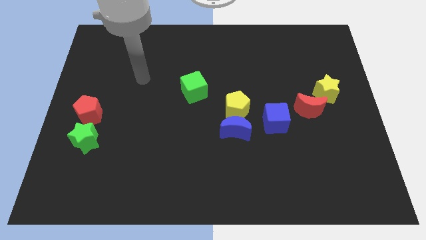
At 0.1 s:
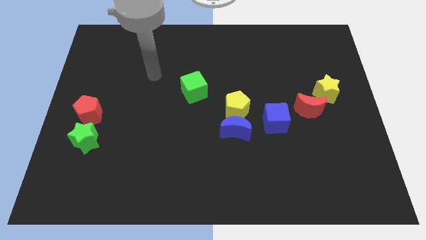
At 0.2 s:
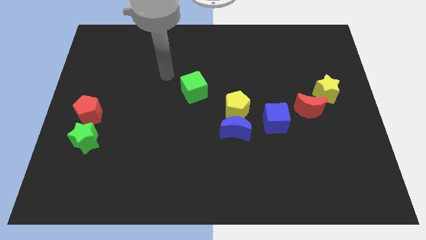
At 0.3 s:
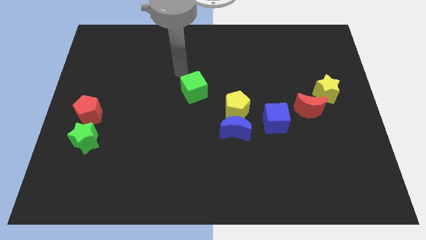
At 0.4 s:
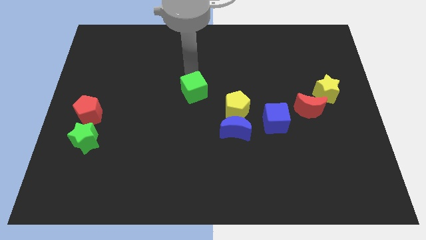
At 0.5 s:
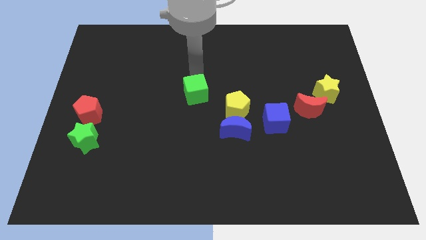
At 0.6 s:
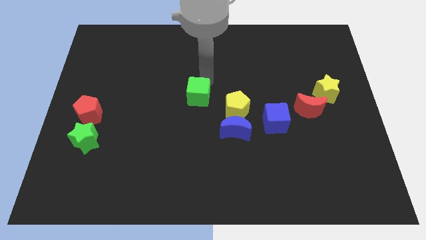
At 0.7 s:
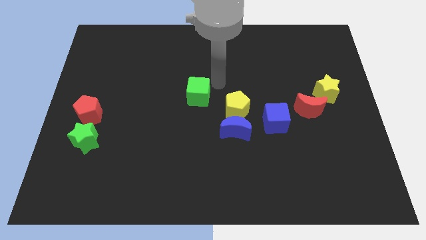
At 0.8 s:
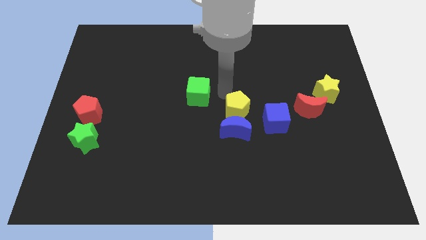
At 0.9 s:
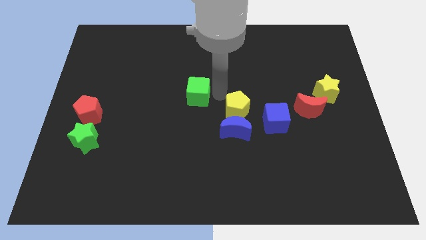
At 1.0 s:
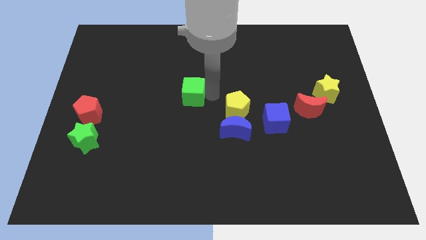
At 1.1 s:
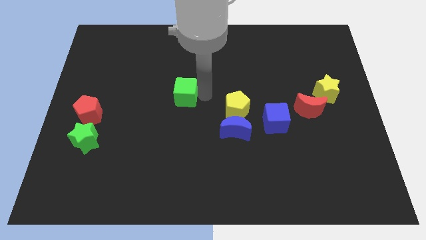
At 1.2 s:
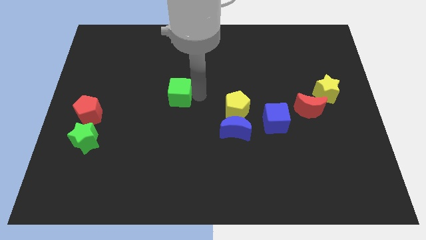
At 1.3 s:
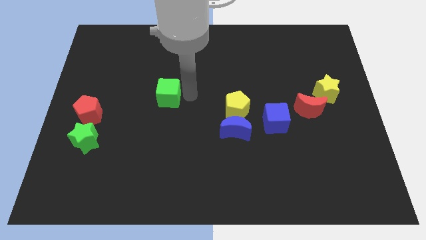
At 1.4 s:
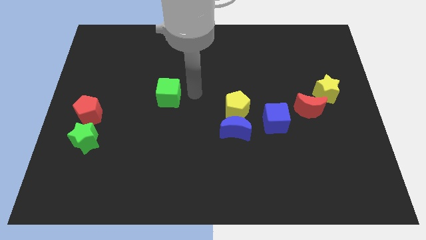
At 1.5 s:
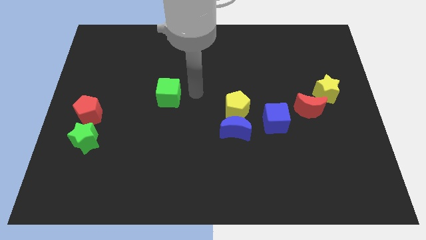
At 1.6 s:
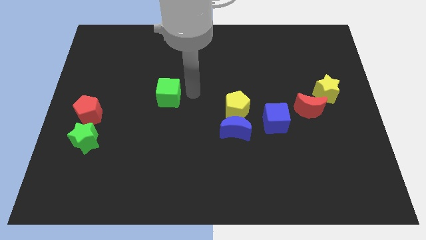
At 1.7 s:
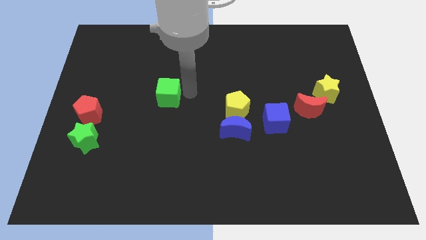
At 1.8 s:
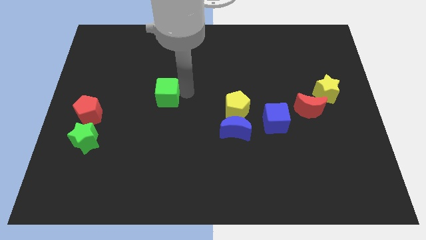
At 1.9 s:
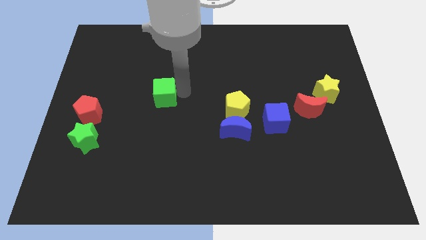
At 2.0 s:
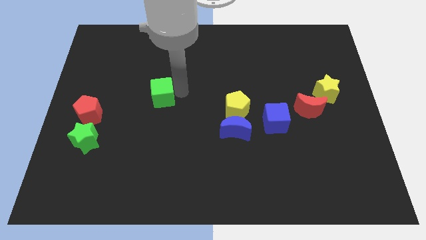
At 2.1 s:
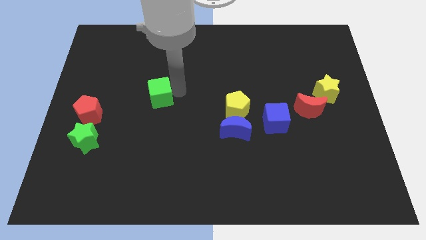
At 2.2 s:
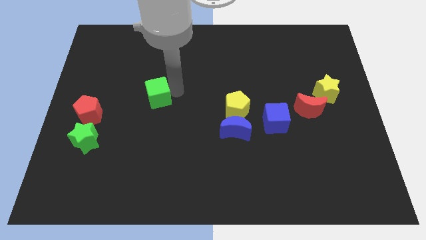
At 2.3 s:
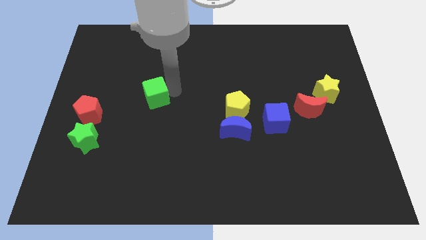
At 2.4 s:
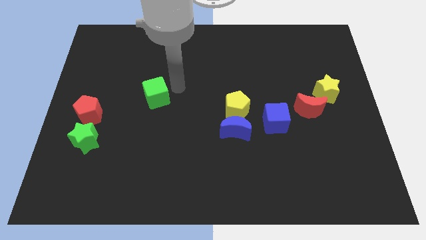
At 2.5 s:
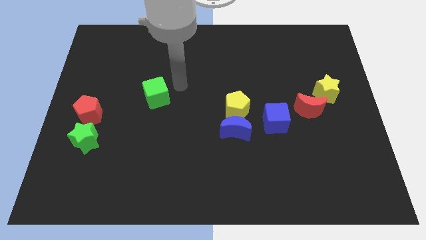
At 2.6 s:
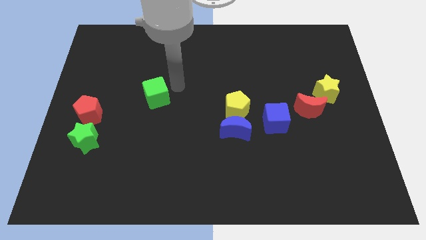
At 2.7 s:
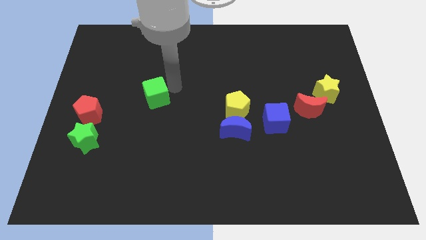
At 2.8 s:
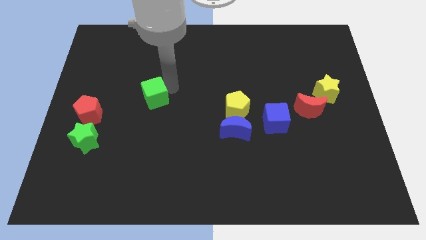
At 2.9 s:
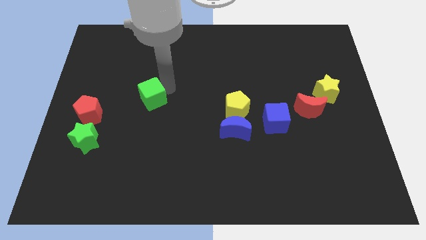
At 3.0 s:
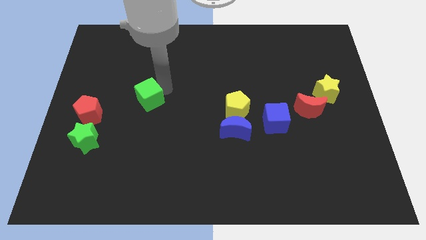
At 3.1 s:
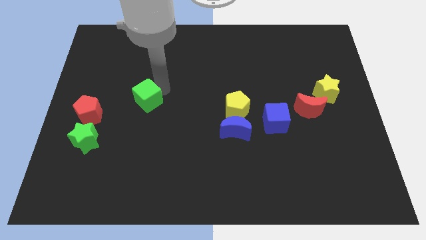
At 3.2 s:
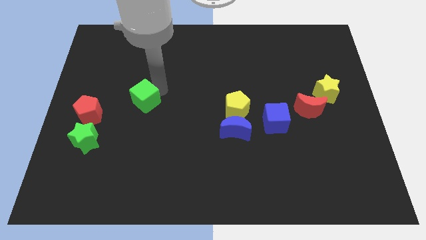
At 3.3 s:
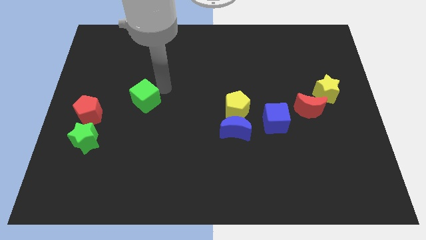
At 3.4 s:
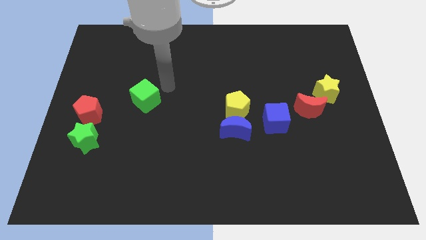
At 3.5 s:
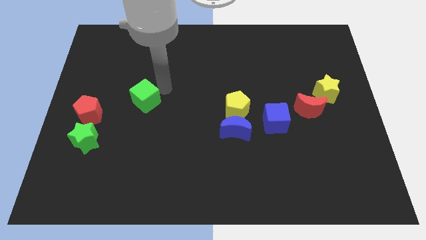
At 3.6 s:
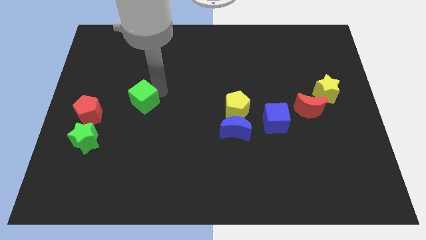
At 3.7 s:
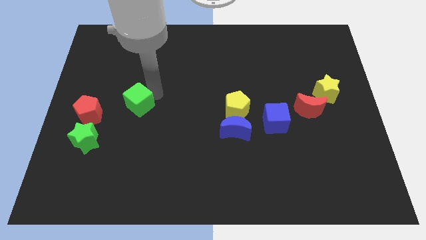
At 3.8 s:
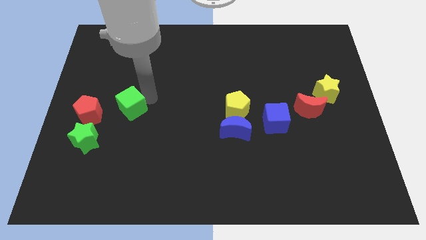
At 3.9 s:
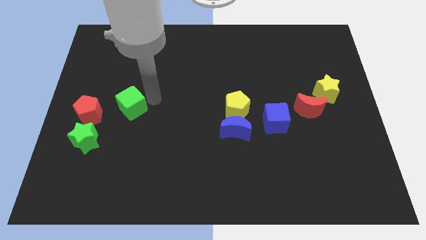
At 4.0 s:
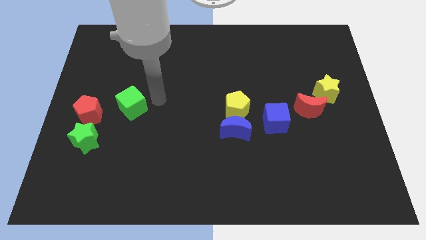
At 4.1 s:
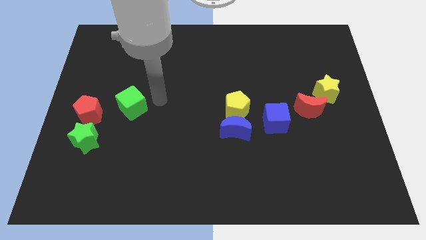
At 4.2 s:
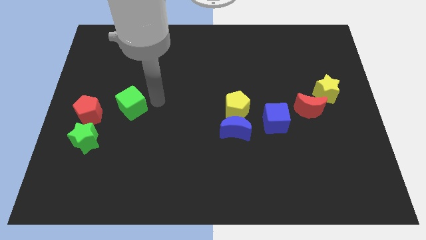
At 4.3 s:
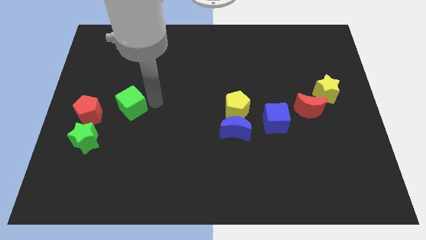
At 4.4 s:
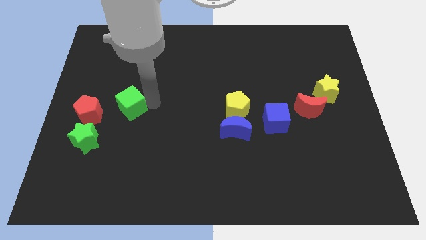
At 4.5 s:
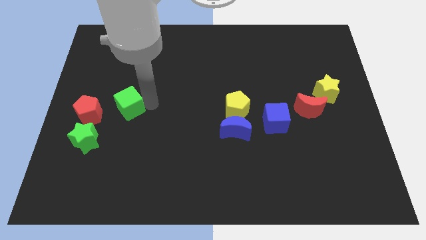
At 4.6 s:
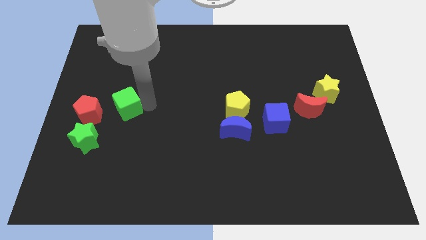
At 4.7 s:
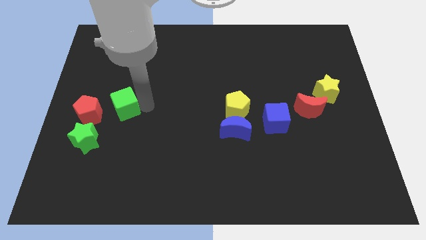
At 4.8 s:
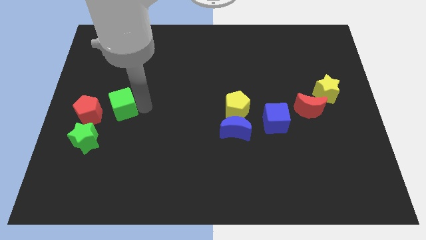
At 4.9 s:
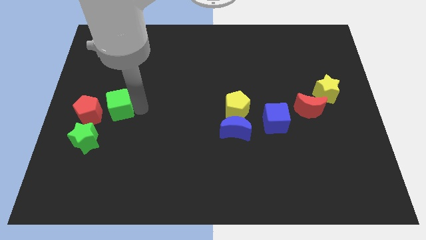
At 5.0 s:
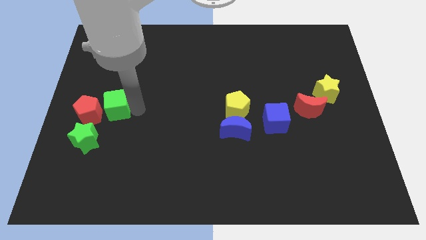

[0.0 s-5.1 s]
slide the green cube next to the red pentagon

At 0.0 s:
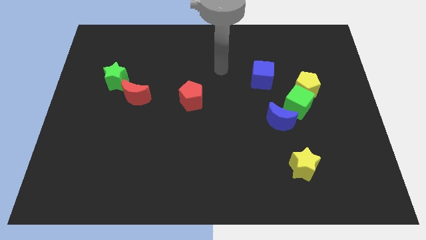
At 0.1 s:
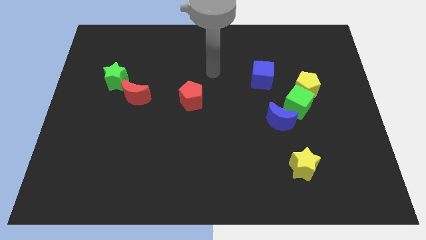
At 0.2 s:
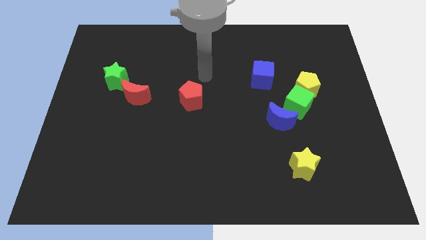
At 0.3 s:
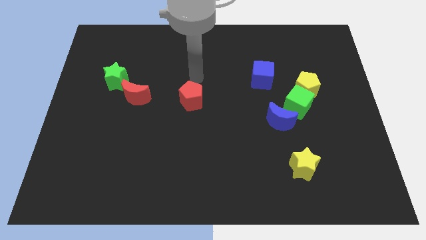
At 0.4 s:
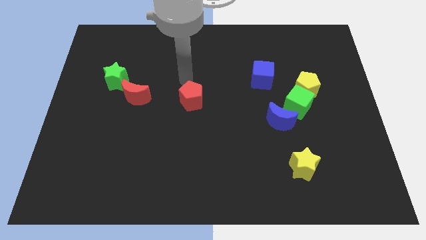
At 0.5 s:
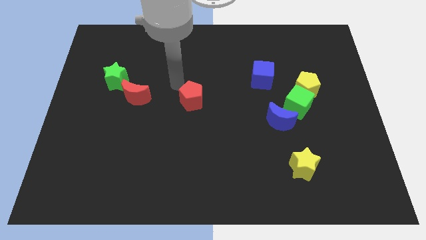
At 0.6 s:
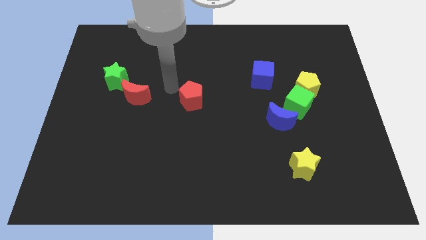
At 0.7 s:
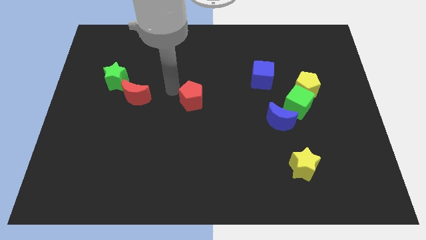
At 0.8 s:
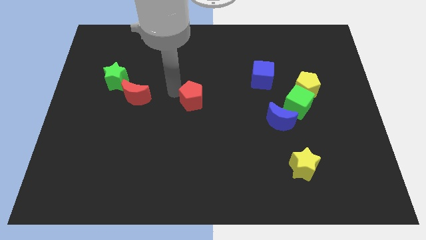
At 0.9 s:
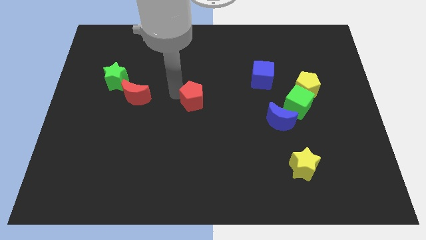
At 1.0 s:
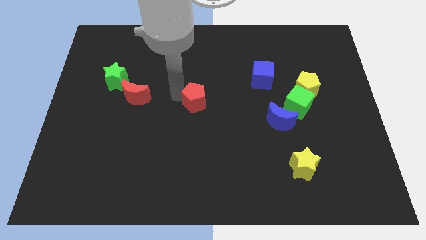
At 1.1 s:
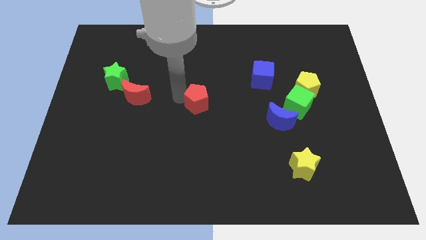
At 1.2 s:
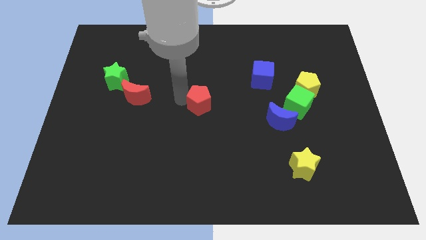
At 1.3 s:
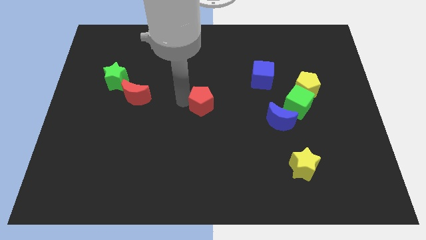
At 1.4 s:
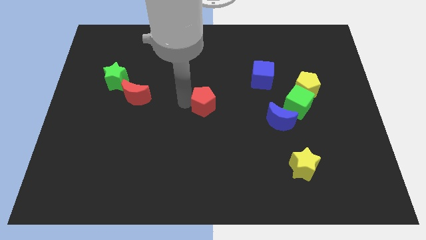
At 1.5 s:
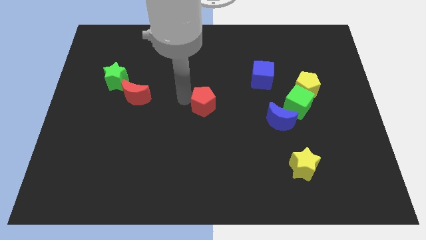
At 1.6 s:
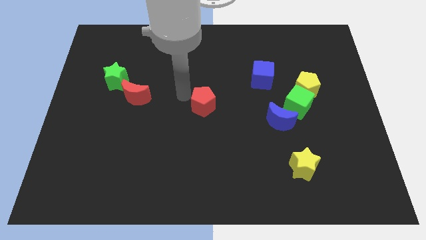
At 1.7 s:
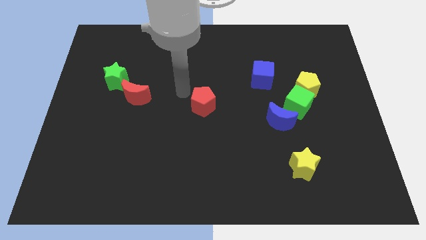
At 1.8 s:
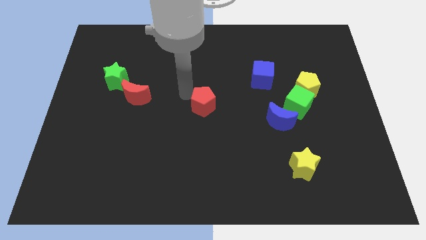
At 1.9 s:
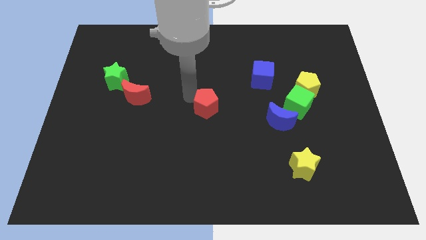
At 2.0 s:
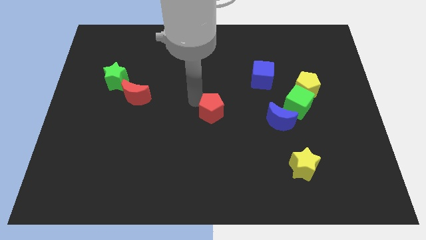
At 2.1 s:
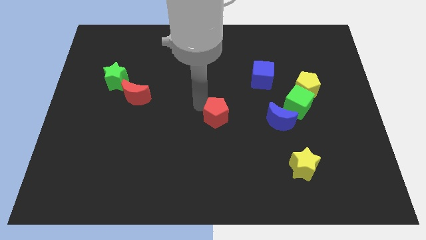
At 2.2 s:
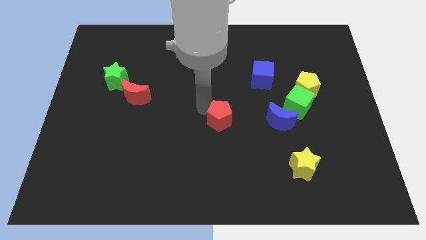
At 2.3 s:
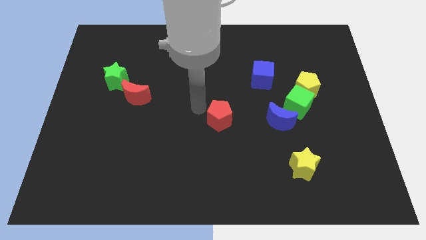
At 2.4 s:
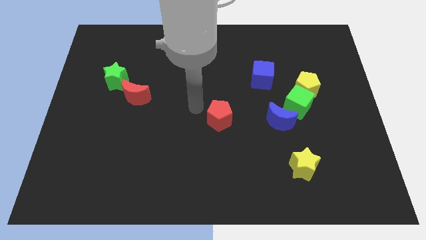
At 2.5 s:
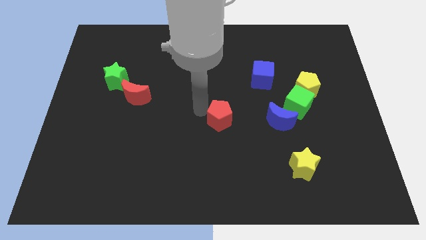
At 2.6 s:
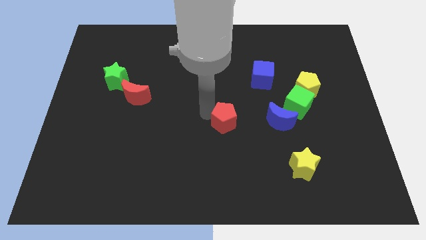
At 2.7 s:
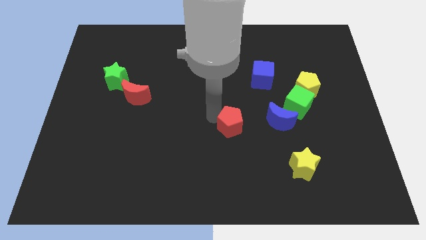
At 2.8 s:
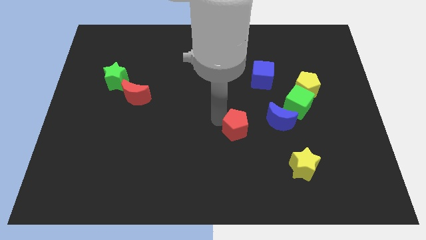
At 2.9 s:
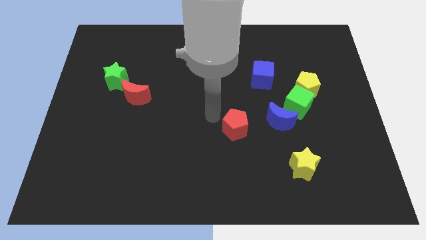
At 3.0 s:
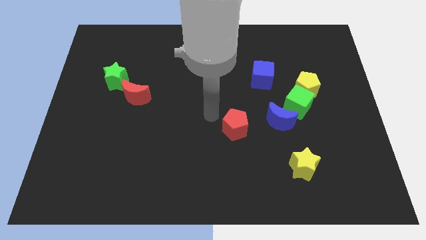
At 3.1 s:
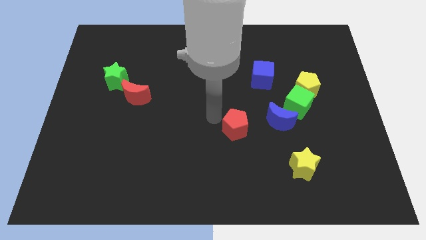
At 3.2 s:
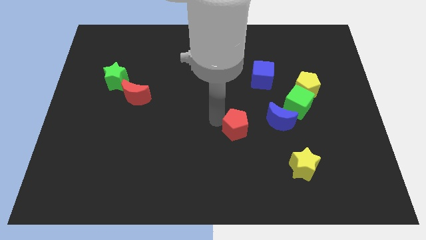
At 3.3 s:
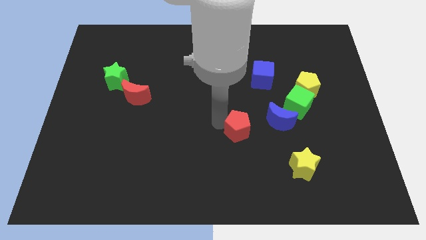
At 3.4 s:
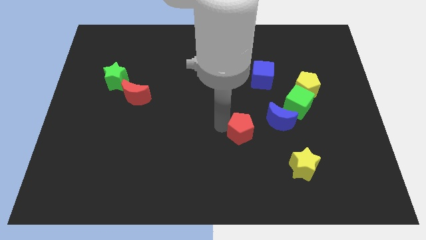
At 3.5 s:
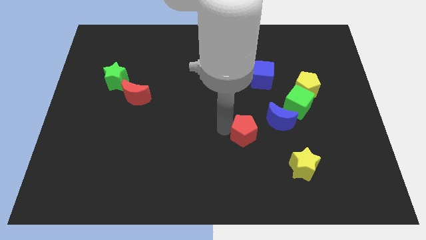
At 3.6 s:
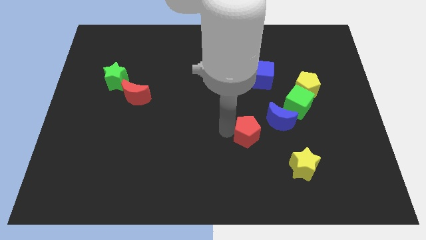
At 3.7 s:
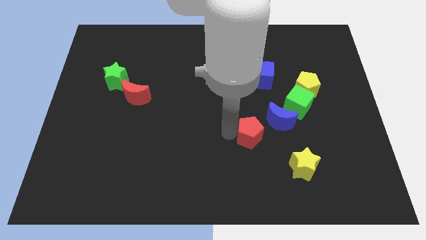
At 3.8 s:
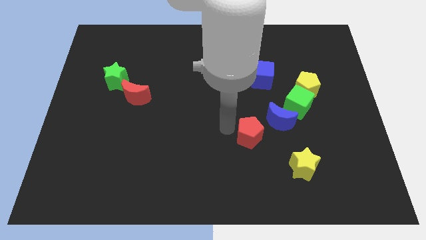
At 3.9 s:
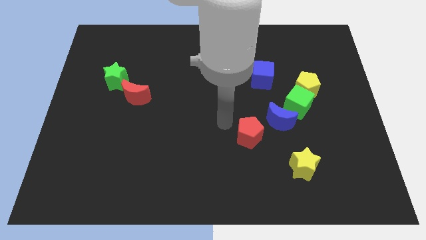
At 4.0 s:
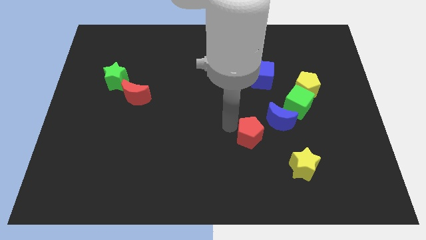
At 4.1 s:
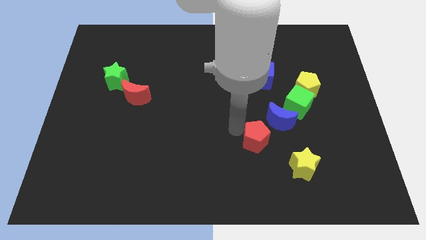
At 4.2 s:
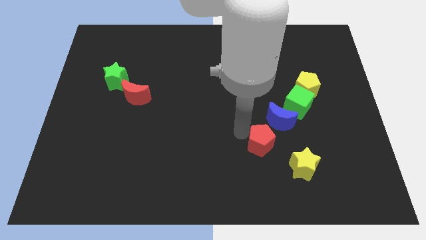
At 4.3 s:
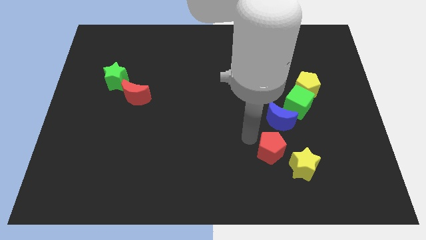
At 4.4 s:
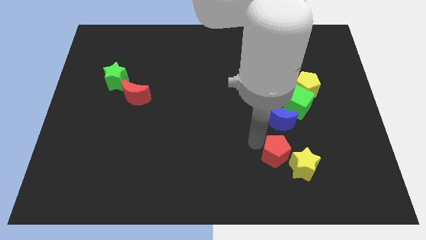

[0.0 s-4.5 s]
slide the red pentagon next to the yellow star
